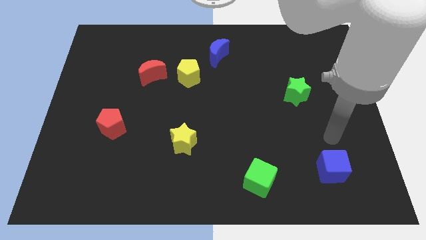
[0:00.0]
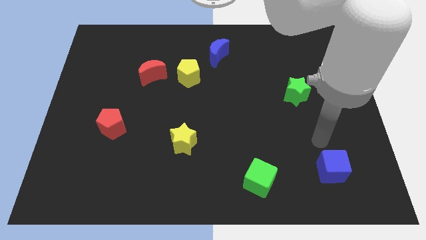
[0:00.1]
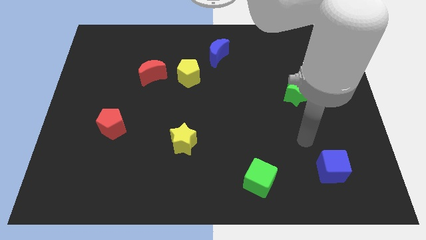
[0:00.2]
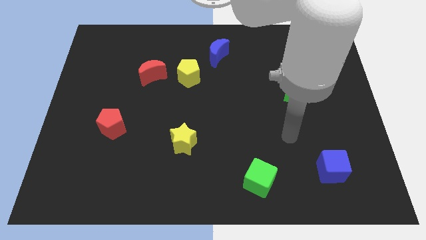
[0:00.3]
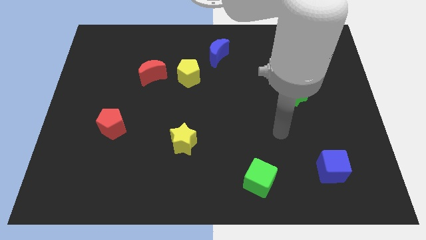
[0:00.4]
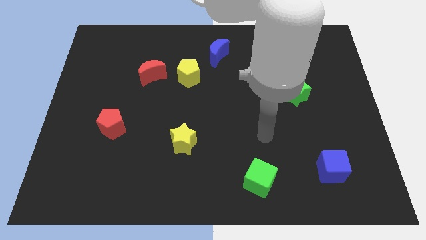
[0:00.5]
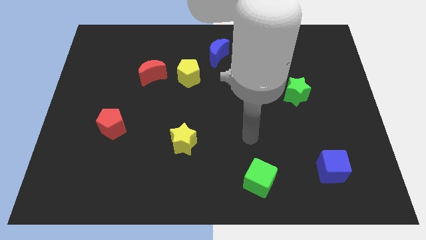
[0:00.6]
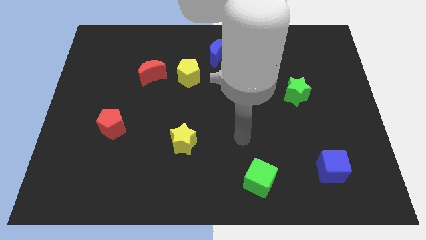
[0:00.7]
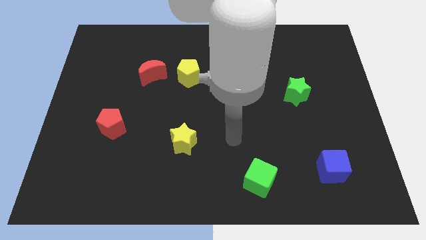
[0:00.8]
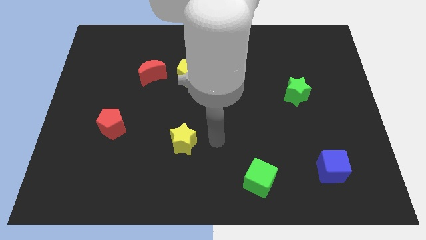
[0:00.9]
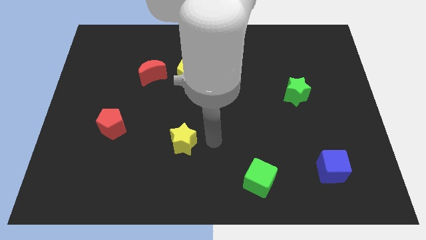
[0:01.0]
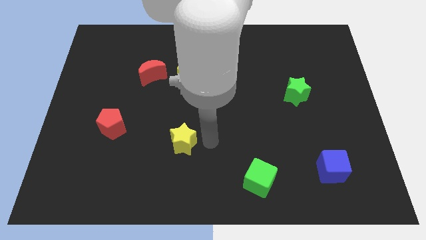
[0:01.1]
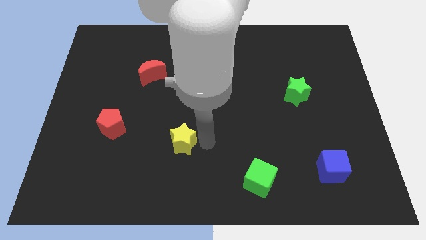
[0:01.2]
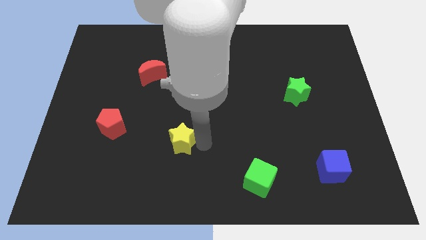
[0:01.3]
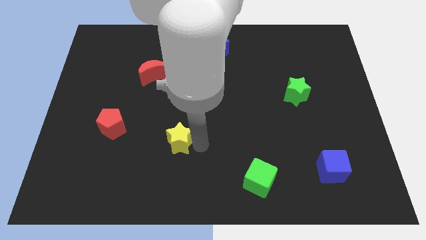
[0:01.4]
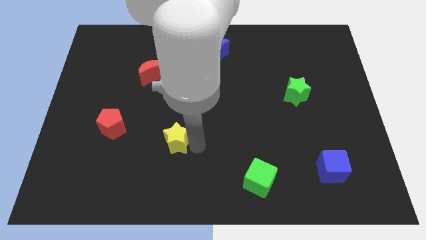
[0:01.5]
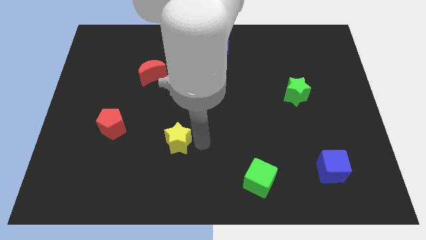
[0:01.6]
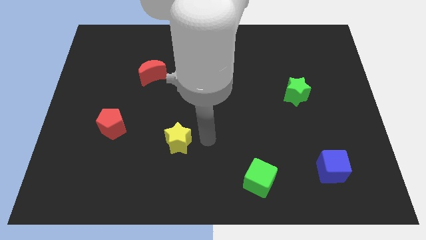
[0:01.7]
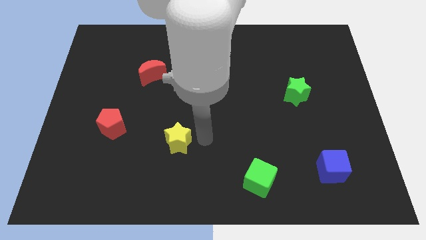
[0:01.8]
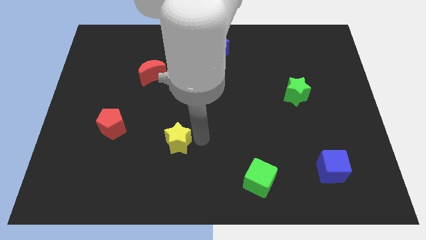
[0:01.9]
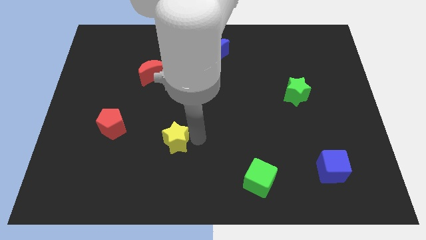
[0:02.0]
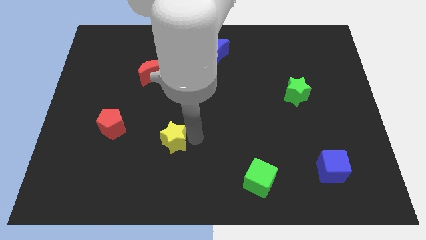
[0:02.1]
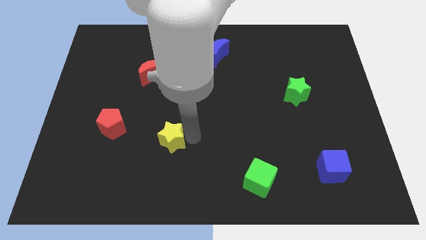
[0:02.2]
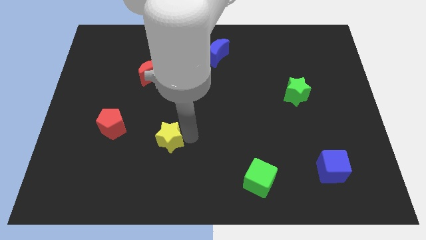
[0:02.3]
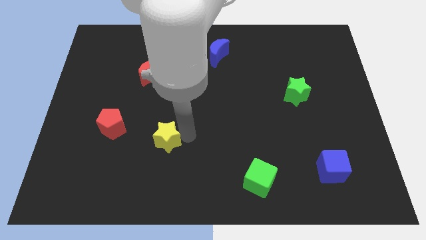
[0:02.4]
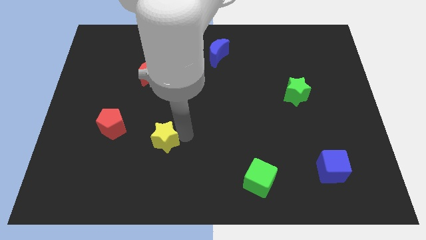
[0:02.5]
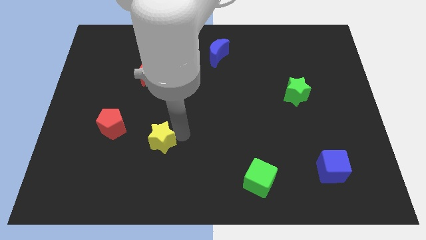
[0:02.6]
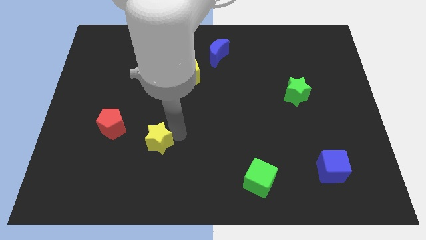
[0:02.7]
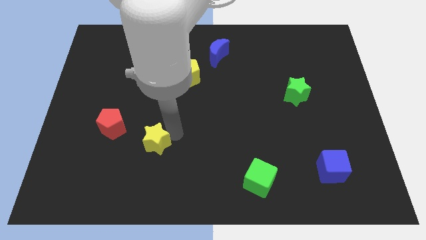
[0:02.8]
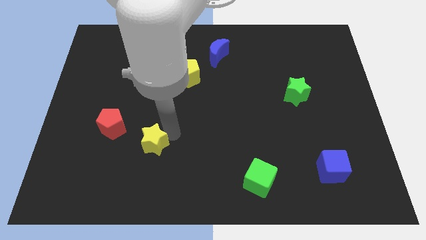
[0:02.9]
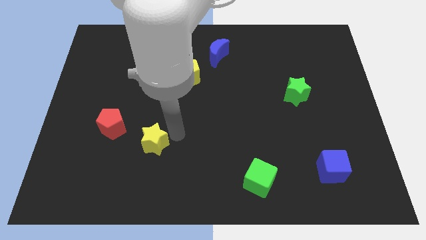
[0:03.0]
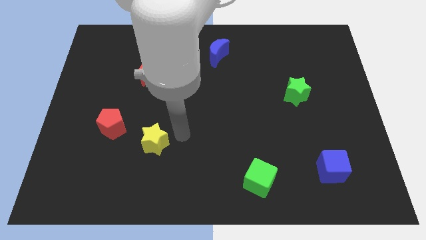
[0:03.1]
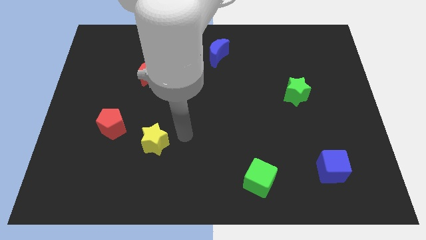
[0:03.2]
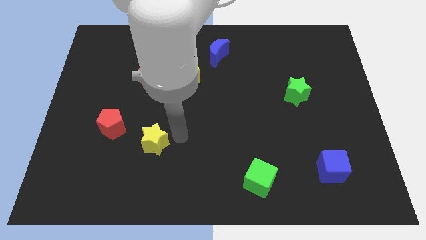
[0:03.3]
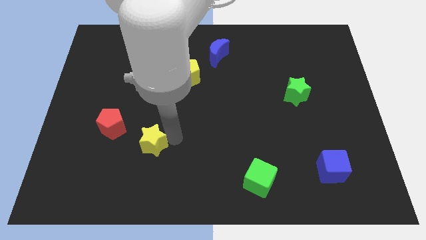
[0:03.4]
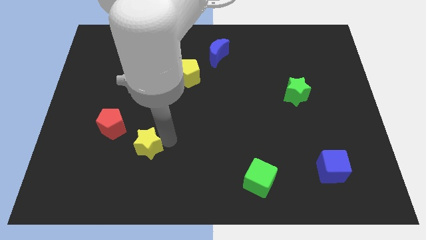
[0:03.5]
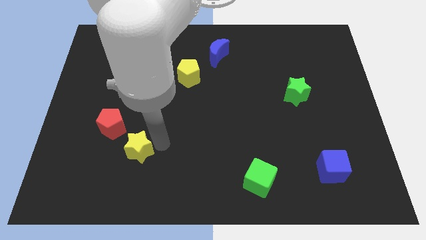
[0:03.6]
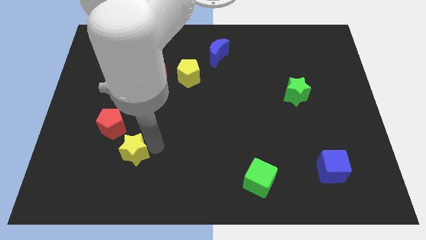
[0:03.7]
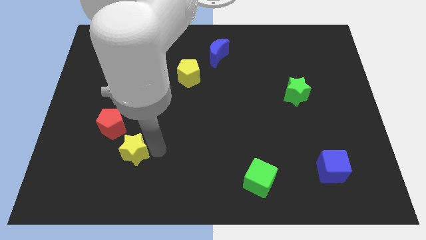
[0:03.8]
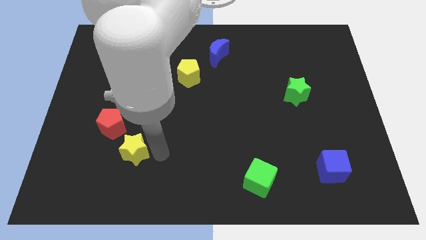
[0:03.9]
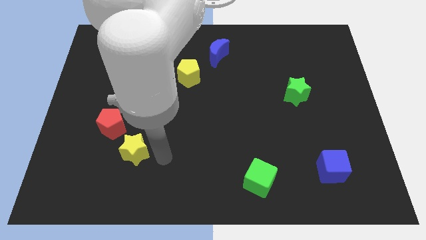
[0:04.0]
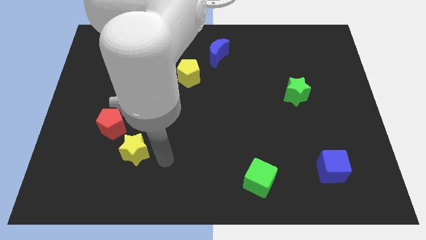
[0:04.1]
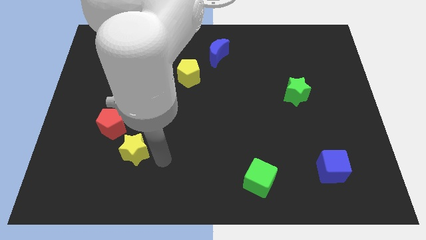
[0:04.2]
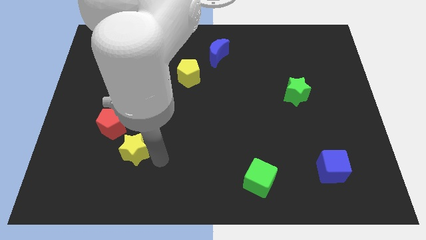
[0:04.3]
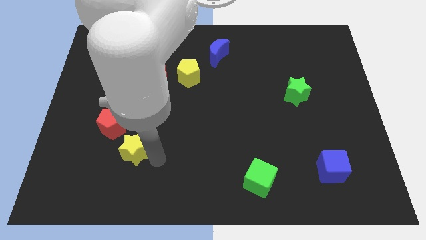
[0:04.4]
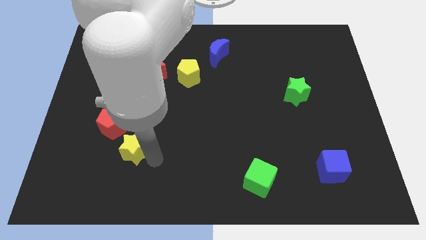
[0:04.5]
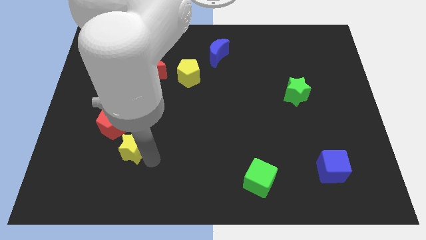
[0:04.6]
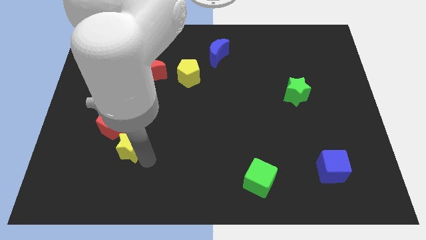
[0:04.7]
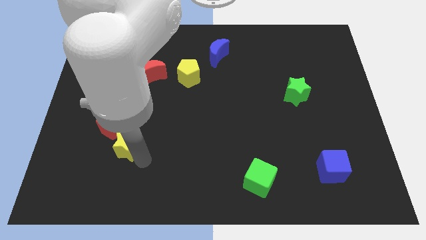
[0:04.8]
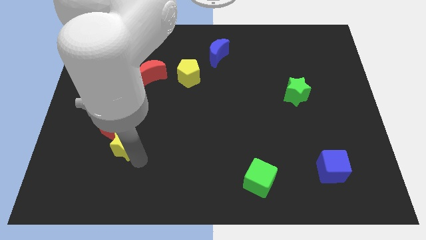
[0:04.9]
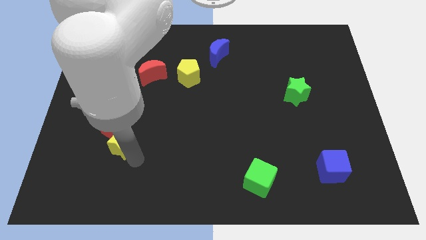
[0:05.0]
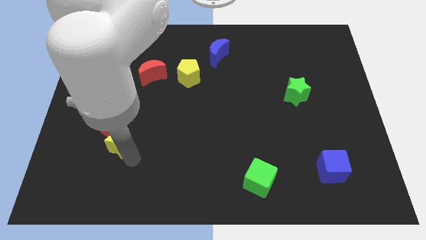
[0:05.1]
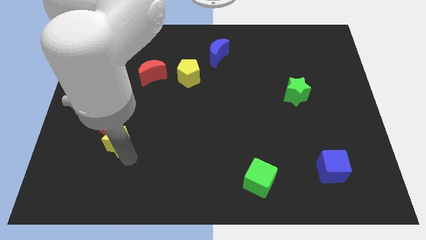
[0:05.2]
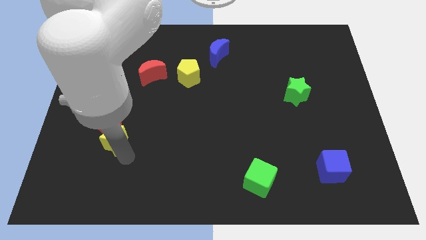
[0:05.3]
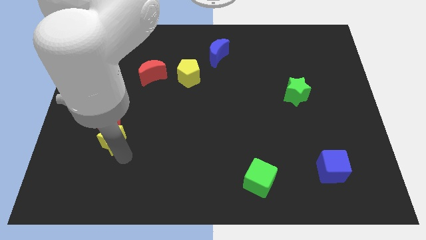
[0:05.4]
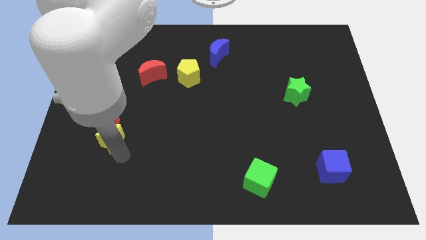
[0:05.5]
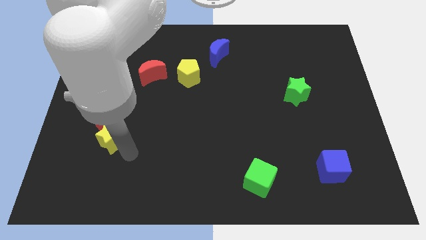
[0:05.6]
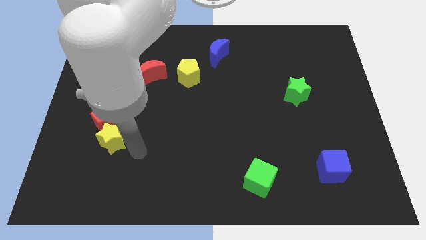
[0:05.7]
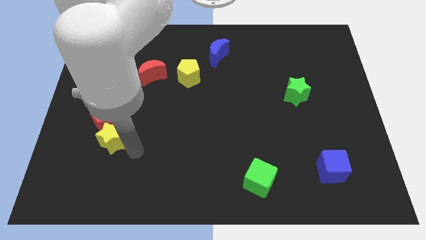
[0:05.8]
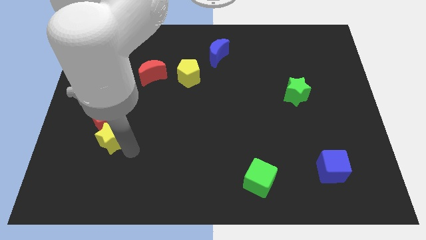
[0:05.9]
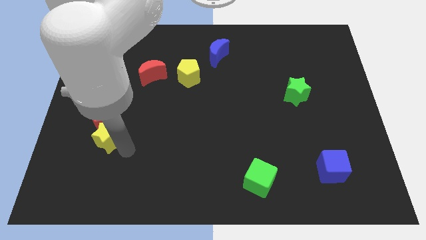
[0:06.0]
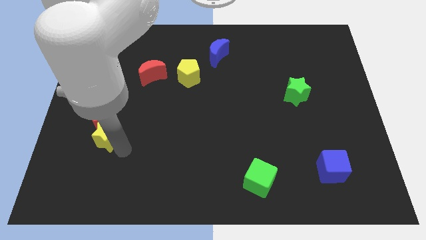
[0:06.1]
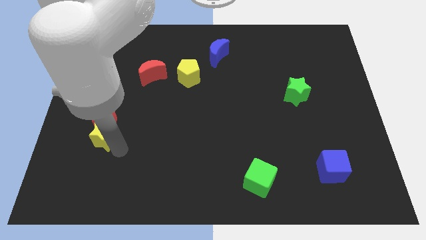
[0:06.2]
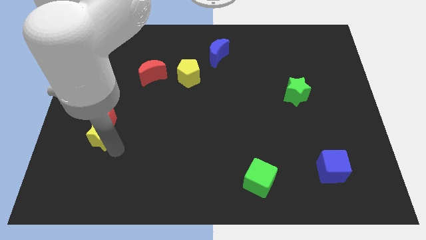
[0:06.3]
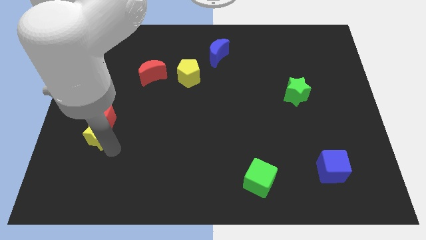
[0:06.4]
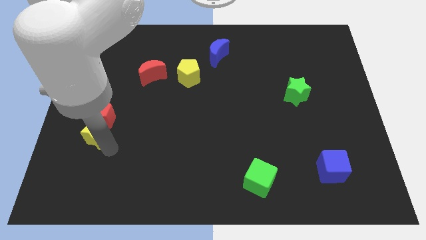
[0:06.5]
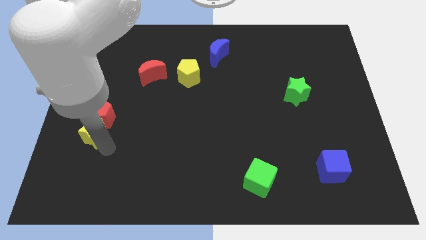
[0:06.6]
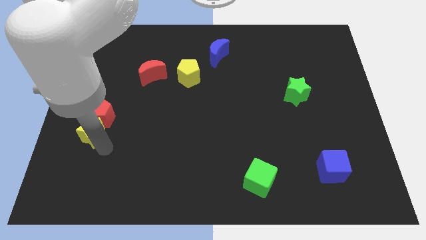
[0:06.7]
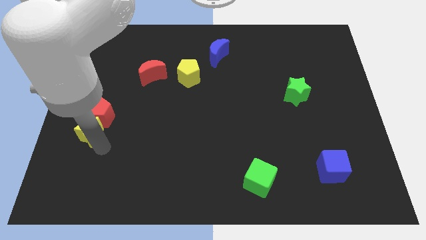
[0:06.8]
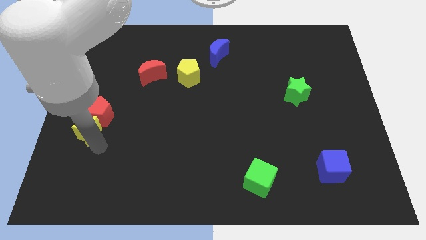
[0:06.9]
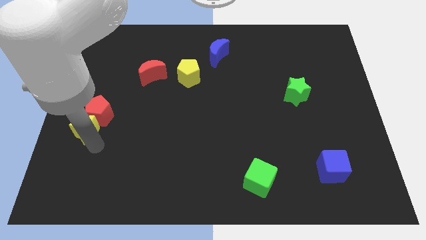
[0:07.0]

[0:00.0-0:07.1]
move the yellow star to the left side of the board
